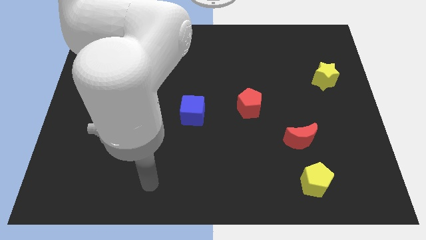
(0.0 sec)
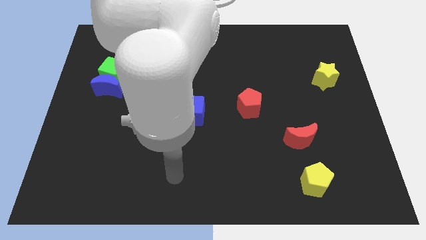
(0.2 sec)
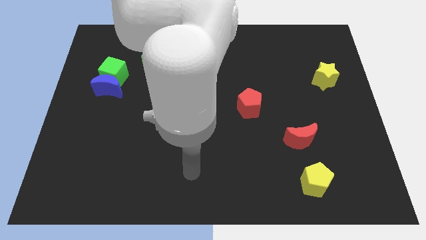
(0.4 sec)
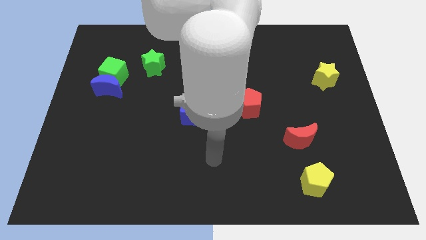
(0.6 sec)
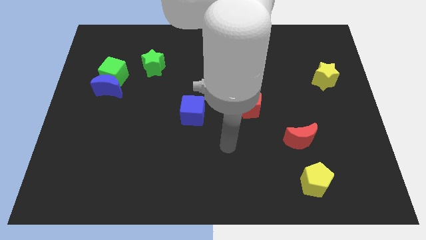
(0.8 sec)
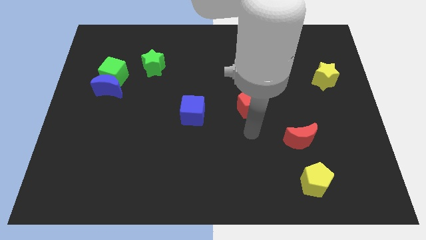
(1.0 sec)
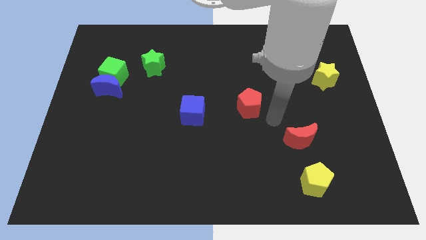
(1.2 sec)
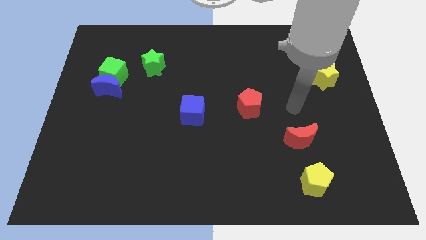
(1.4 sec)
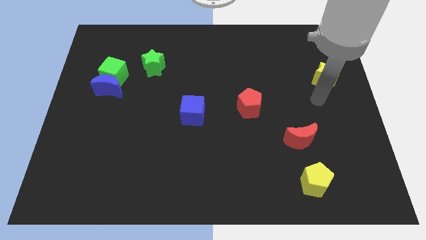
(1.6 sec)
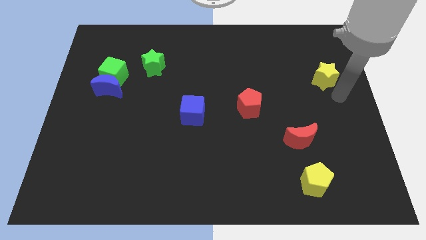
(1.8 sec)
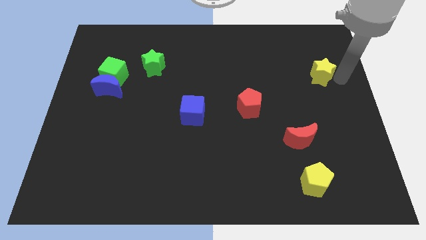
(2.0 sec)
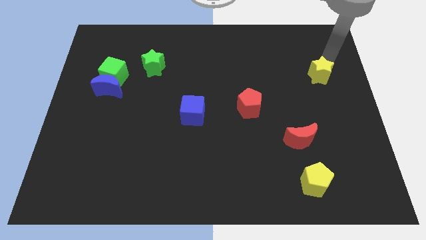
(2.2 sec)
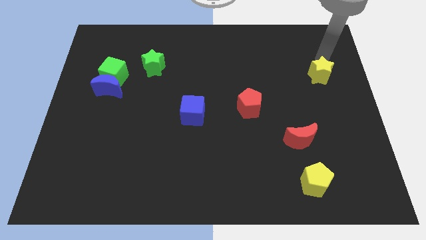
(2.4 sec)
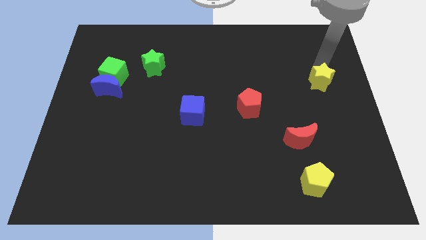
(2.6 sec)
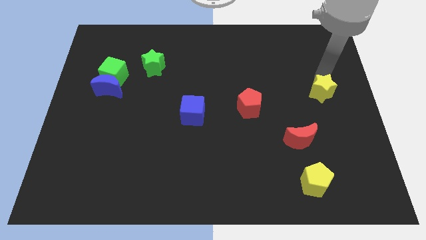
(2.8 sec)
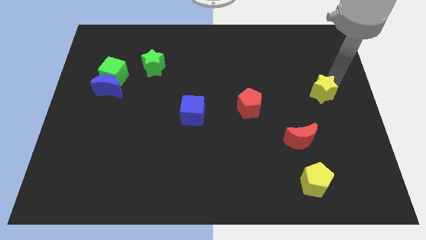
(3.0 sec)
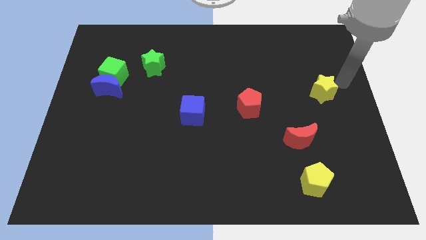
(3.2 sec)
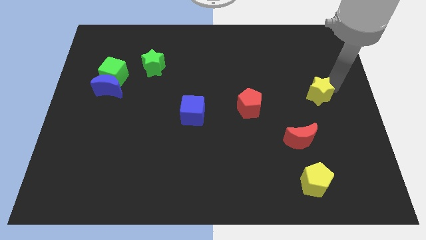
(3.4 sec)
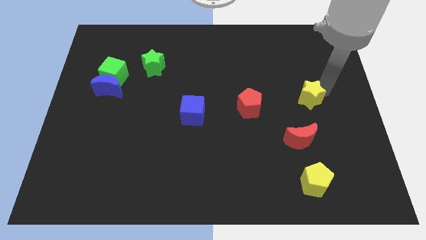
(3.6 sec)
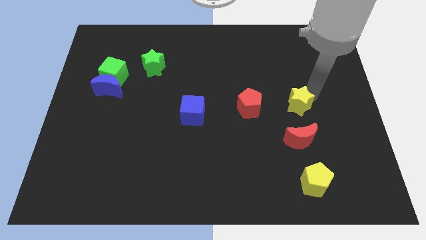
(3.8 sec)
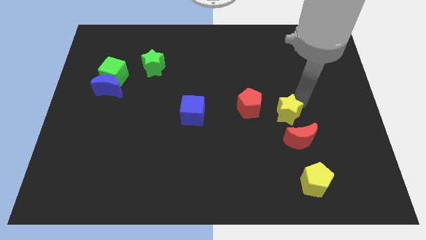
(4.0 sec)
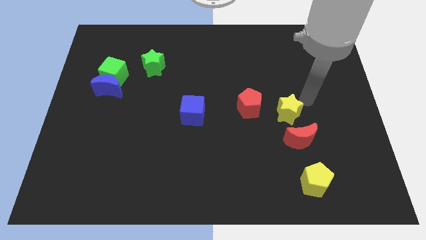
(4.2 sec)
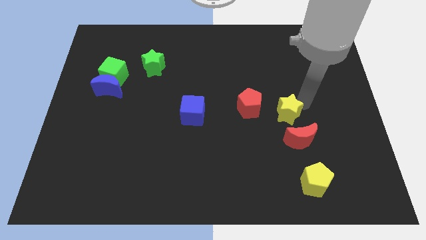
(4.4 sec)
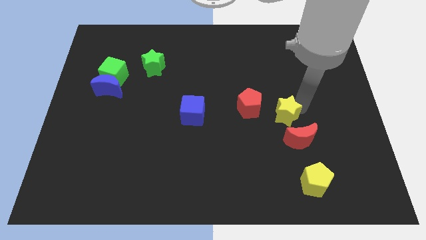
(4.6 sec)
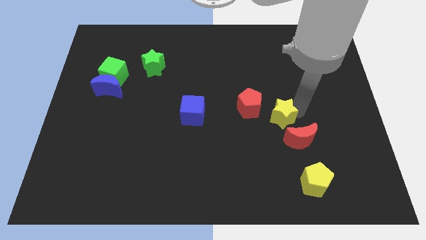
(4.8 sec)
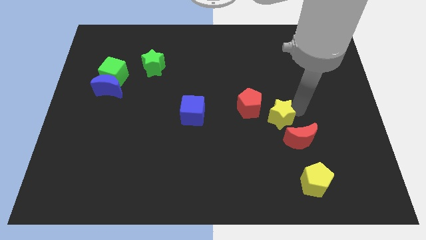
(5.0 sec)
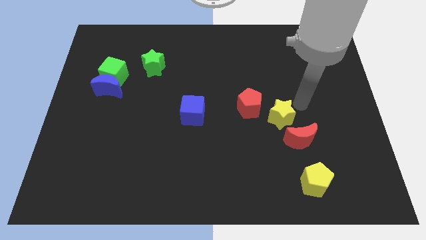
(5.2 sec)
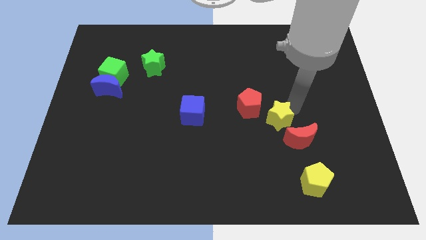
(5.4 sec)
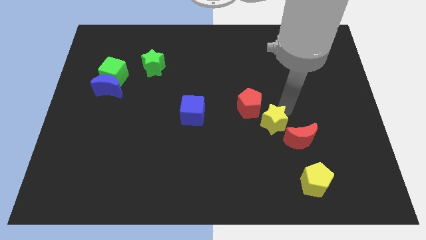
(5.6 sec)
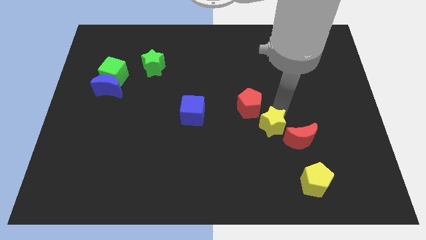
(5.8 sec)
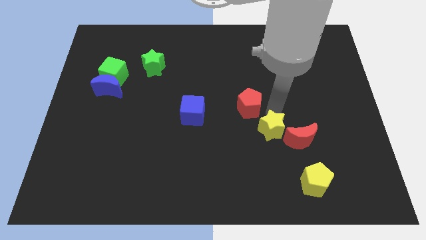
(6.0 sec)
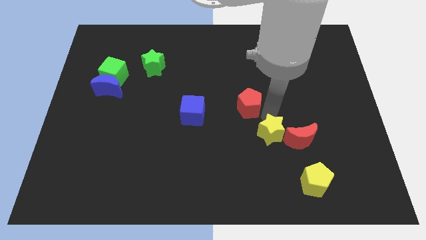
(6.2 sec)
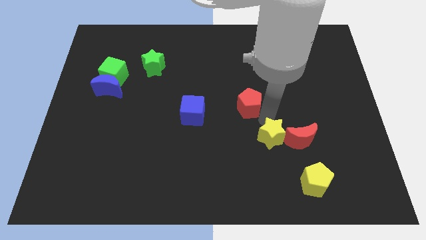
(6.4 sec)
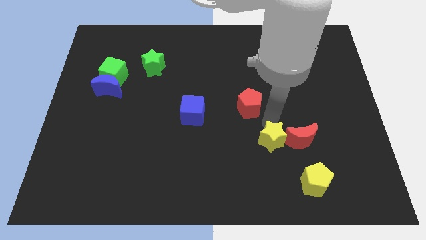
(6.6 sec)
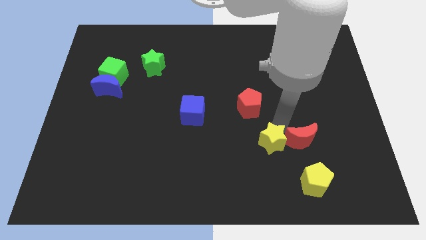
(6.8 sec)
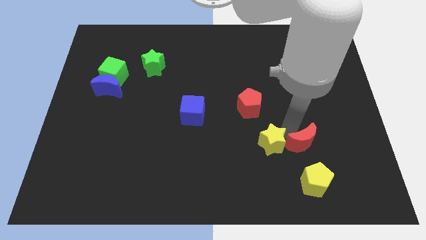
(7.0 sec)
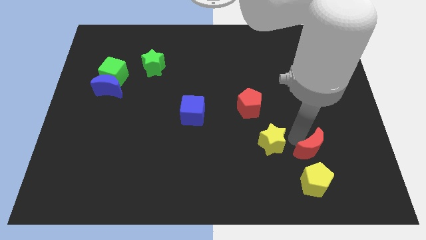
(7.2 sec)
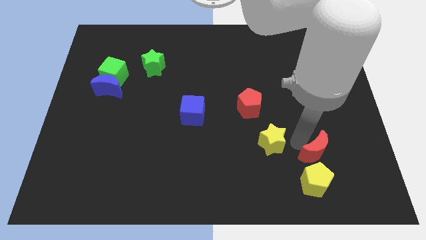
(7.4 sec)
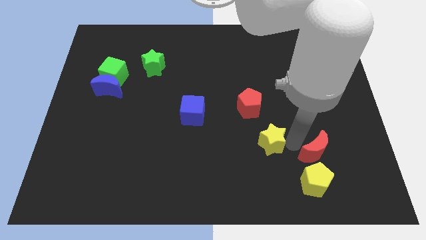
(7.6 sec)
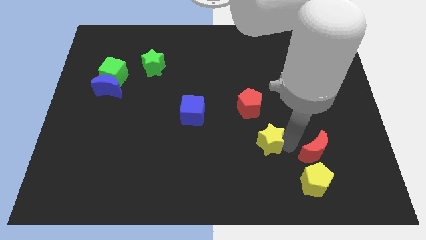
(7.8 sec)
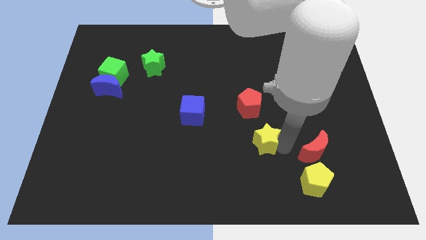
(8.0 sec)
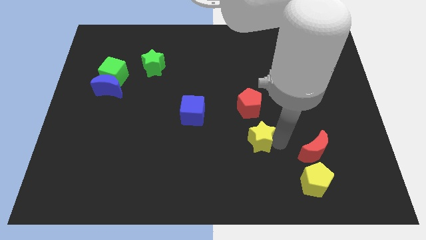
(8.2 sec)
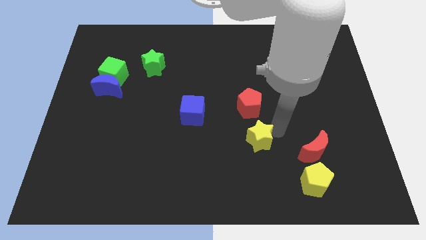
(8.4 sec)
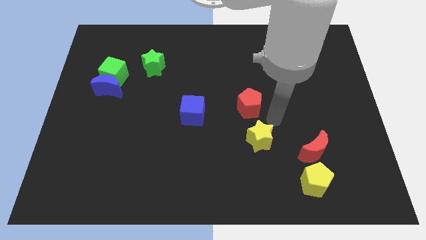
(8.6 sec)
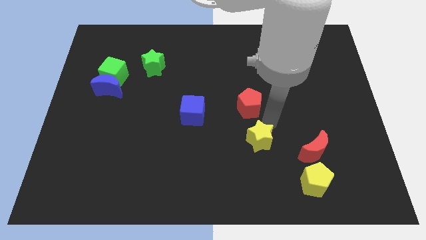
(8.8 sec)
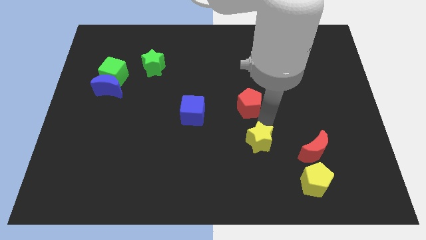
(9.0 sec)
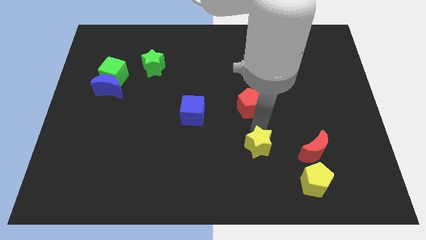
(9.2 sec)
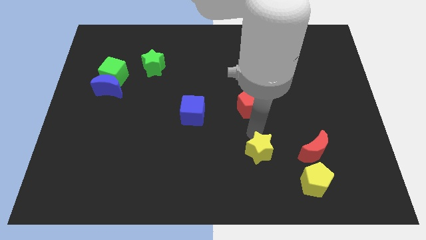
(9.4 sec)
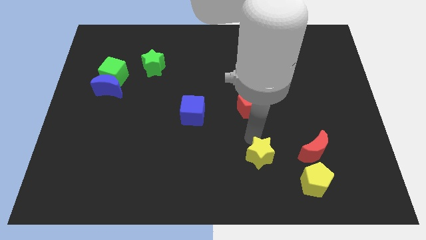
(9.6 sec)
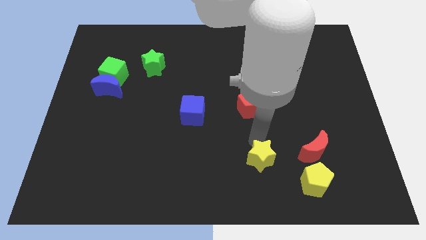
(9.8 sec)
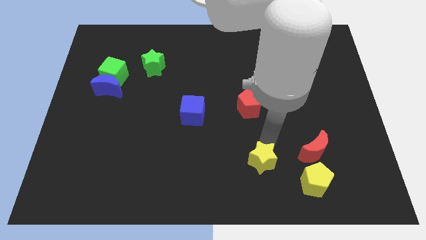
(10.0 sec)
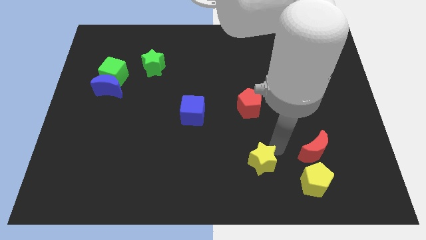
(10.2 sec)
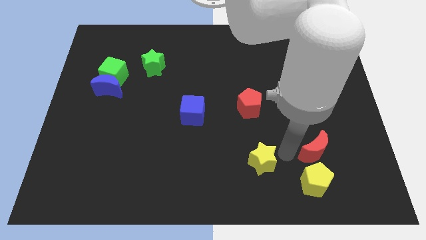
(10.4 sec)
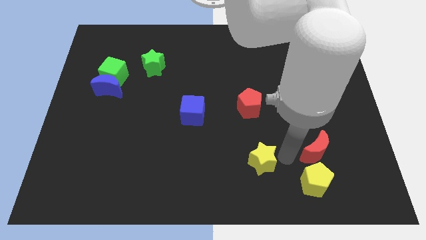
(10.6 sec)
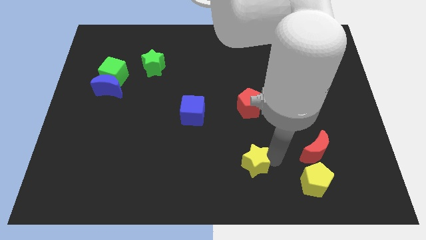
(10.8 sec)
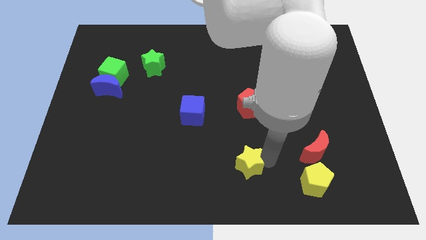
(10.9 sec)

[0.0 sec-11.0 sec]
move the yellow star to the bottom
